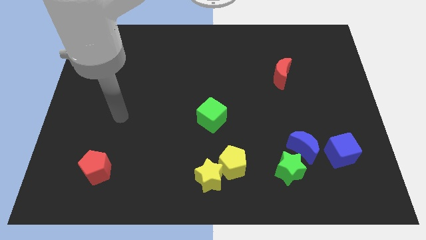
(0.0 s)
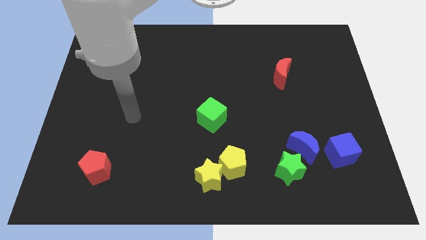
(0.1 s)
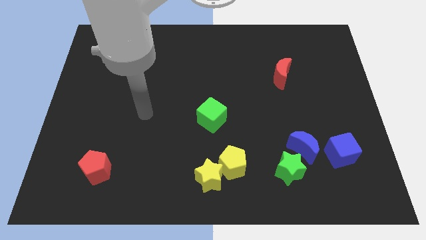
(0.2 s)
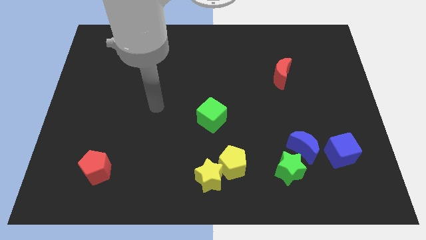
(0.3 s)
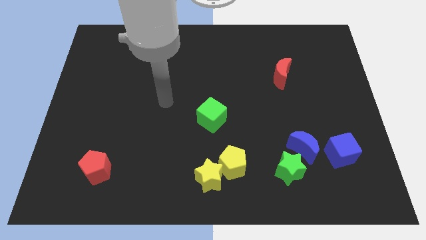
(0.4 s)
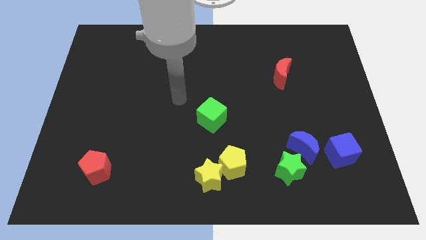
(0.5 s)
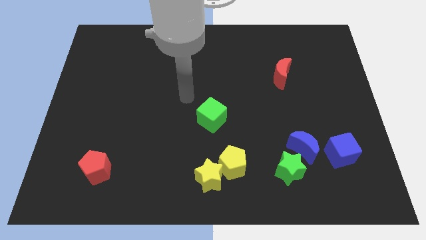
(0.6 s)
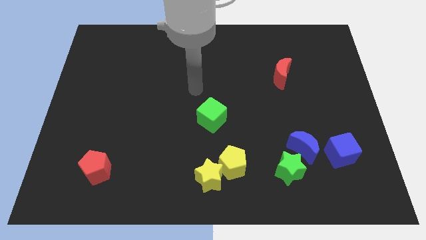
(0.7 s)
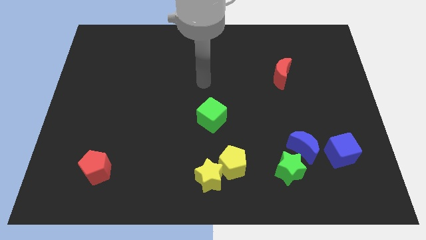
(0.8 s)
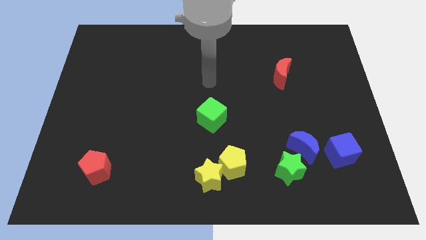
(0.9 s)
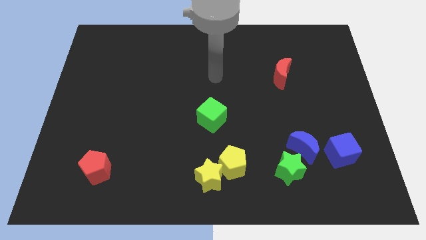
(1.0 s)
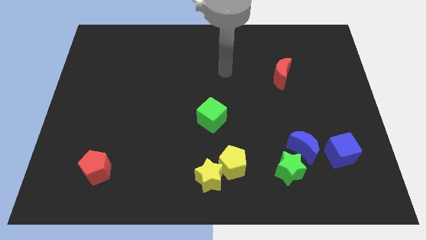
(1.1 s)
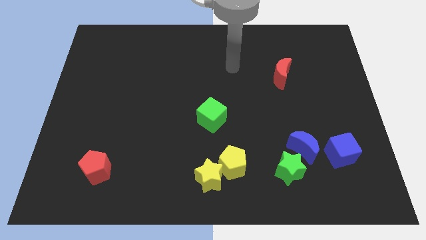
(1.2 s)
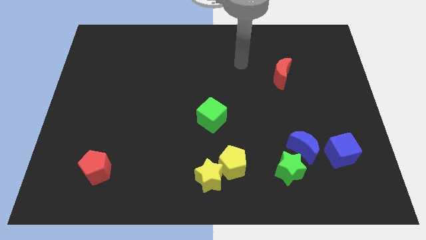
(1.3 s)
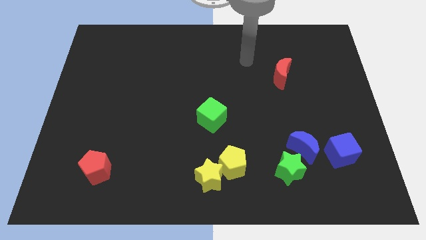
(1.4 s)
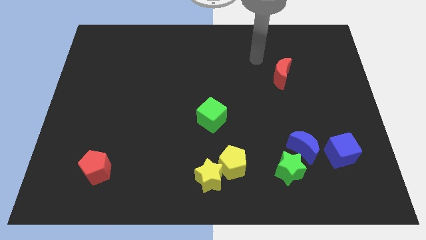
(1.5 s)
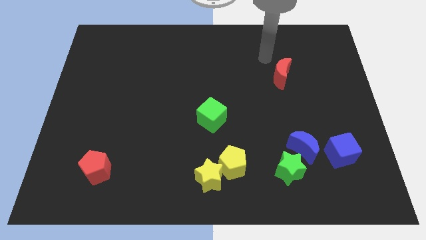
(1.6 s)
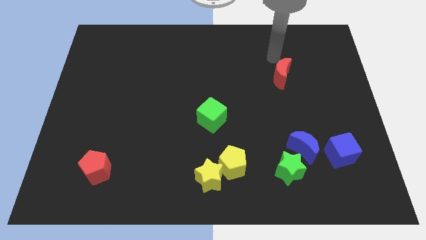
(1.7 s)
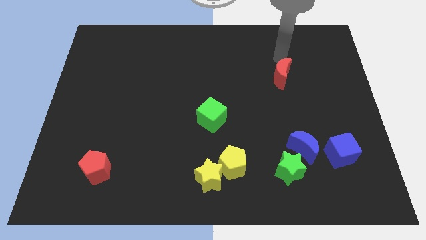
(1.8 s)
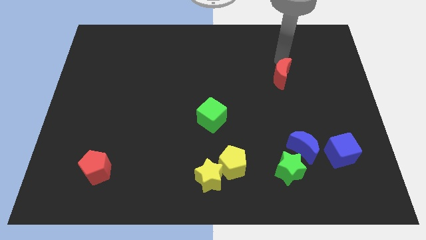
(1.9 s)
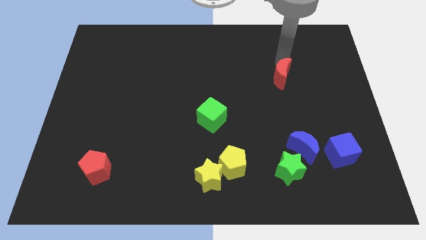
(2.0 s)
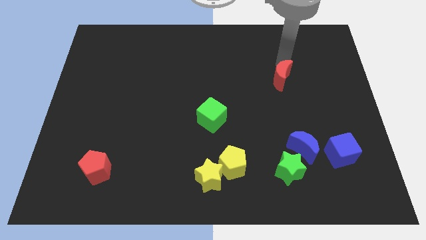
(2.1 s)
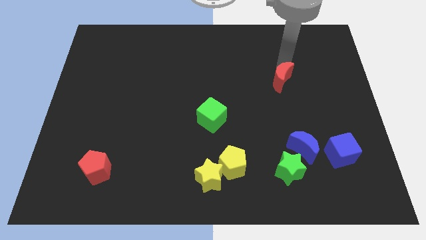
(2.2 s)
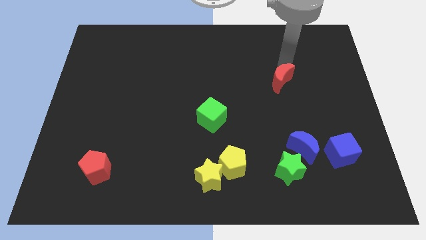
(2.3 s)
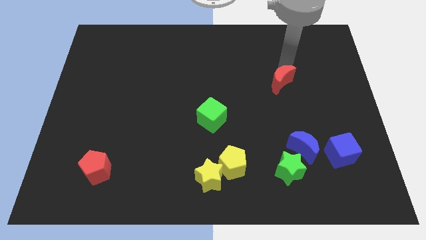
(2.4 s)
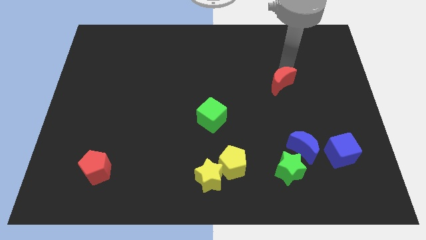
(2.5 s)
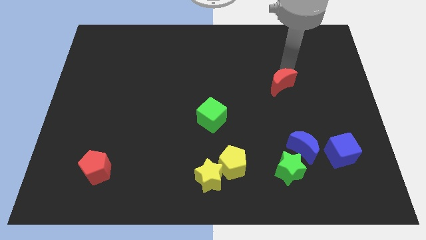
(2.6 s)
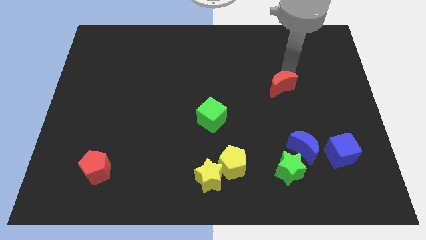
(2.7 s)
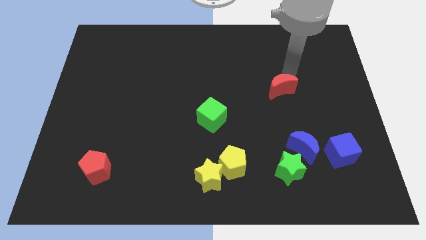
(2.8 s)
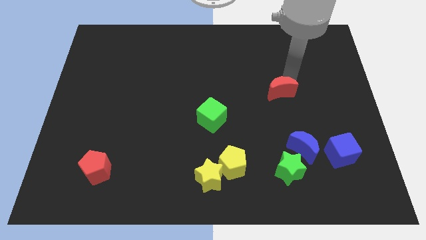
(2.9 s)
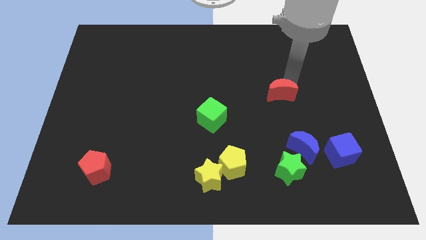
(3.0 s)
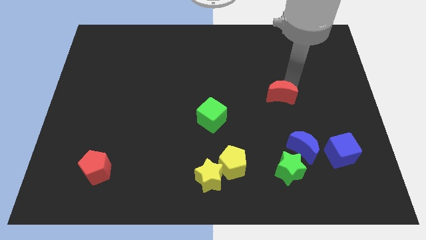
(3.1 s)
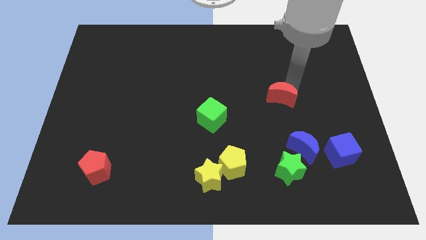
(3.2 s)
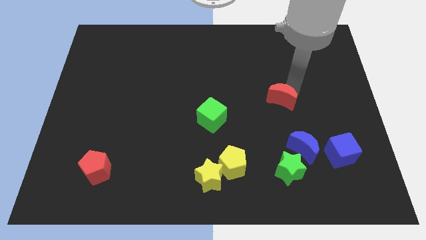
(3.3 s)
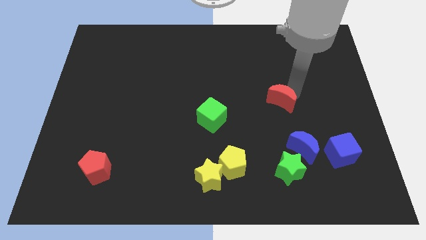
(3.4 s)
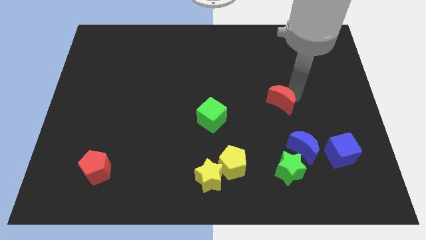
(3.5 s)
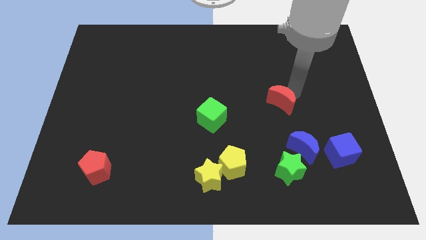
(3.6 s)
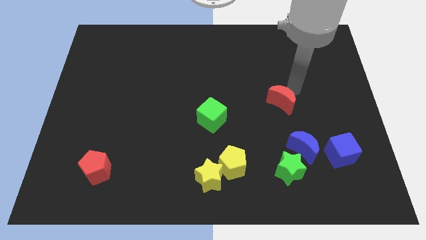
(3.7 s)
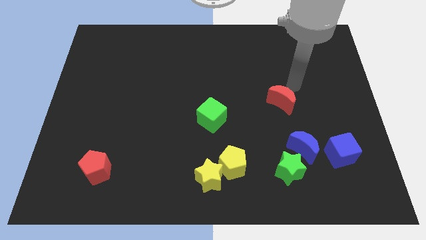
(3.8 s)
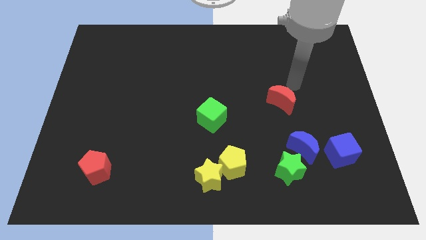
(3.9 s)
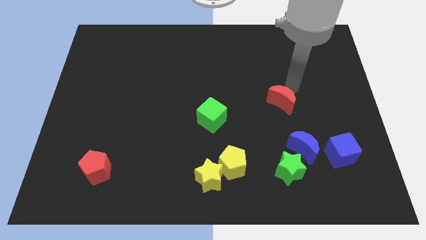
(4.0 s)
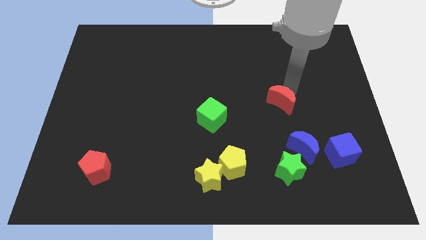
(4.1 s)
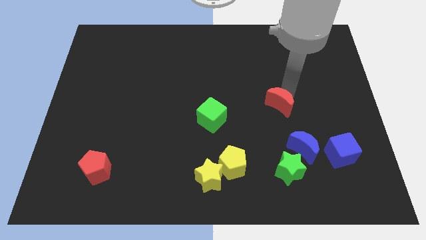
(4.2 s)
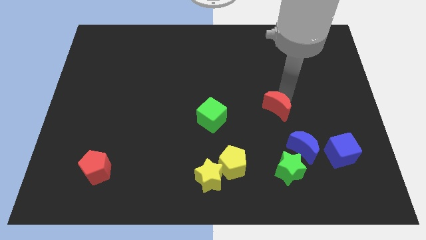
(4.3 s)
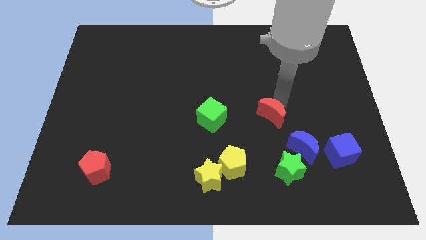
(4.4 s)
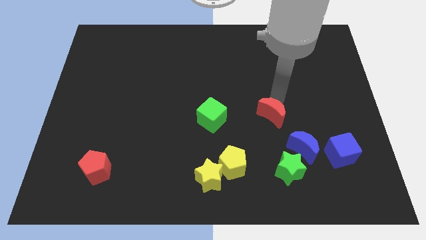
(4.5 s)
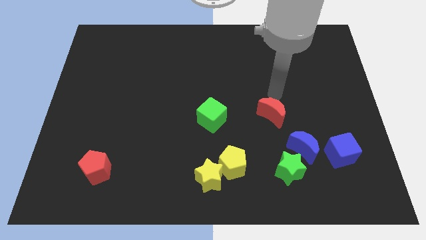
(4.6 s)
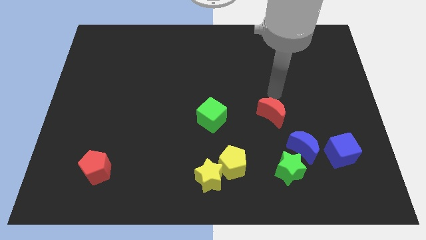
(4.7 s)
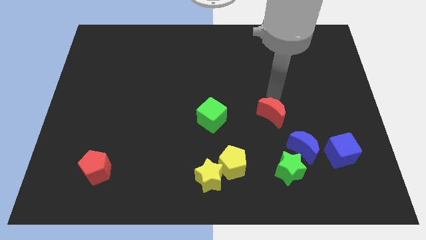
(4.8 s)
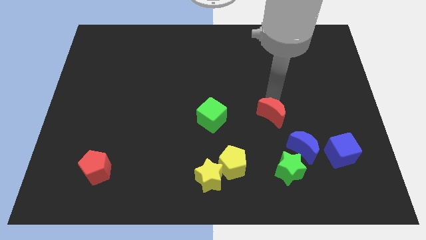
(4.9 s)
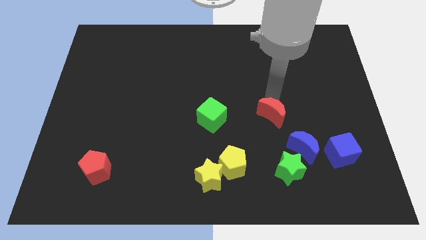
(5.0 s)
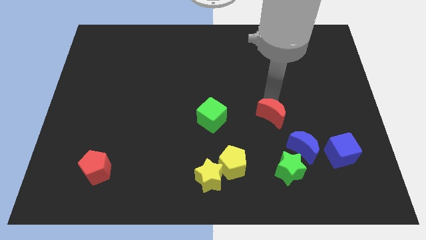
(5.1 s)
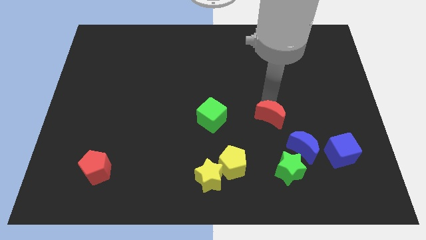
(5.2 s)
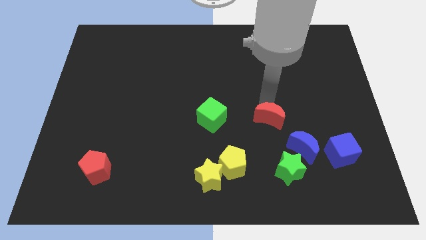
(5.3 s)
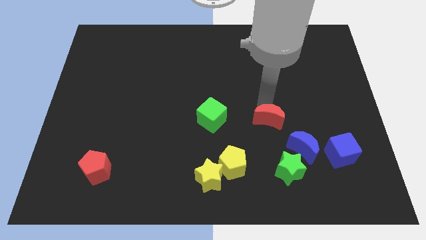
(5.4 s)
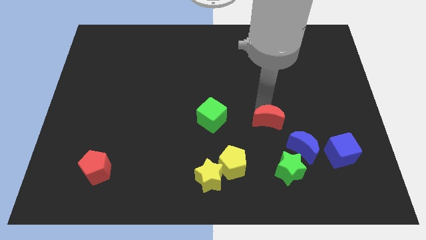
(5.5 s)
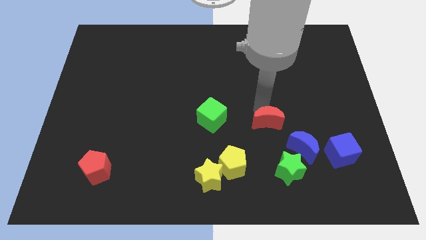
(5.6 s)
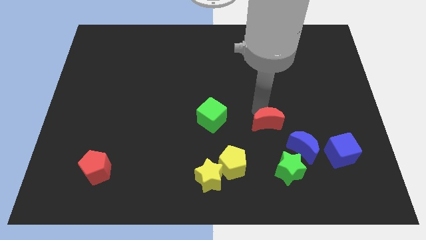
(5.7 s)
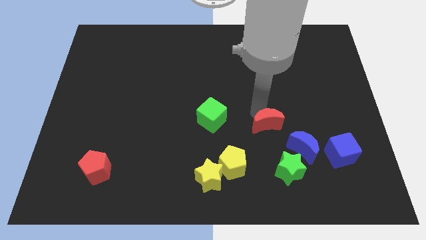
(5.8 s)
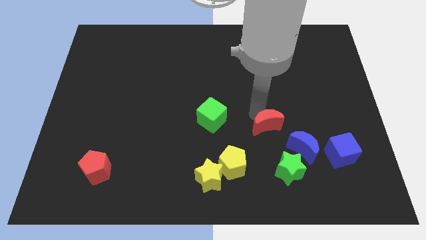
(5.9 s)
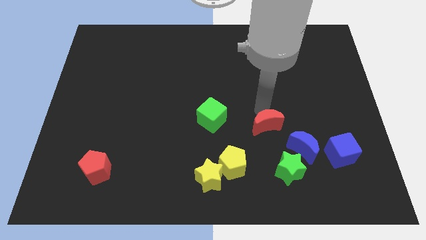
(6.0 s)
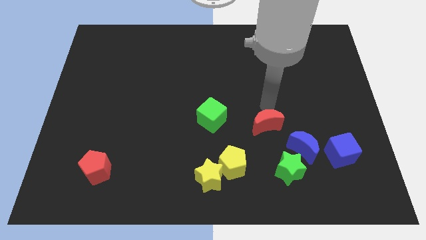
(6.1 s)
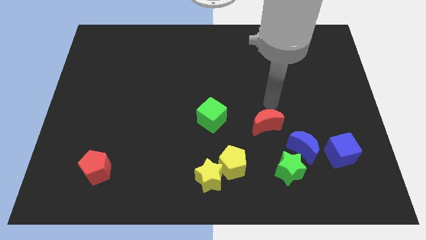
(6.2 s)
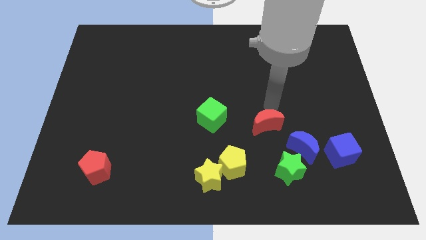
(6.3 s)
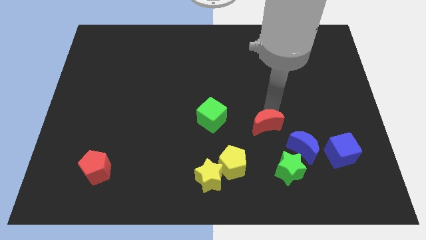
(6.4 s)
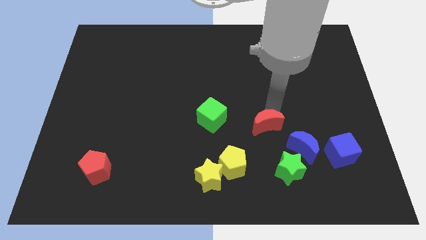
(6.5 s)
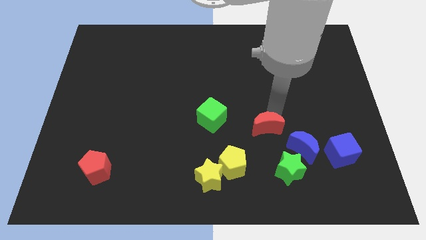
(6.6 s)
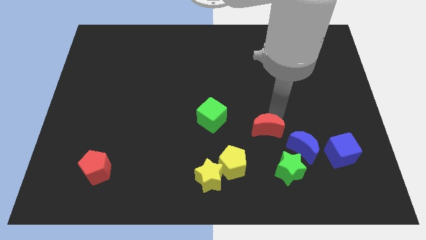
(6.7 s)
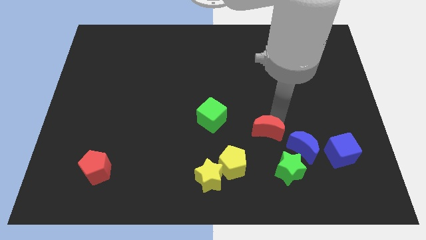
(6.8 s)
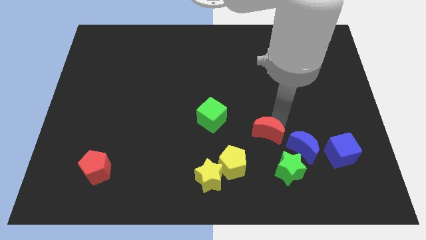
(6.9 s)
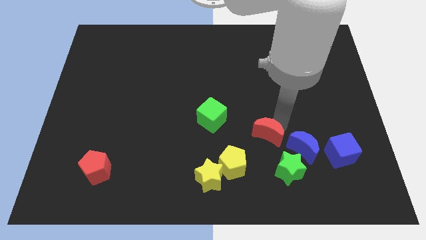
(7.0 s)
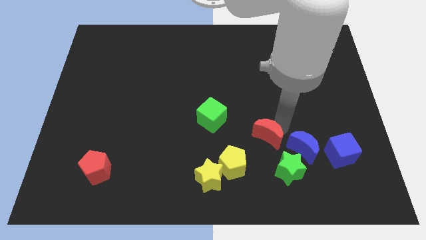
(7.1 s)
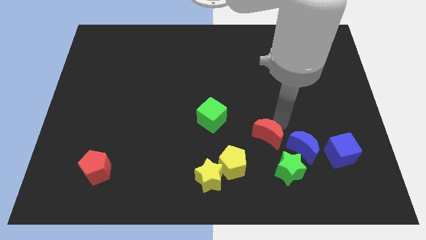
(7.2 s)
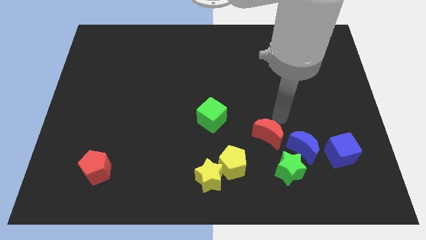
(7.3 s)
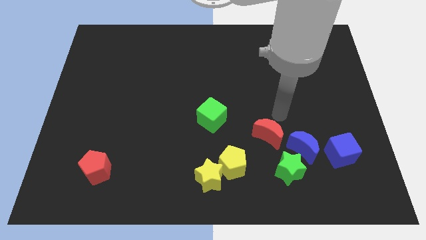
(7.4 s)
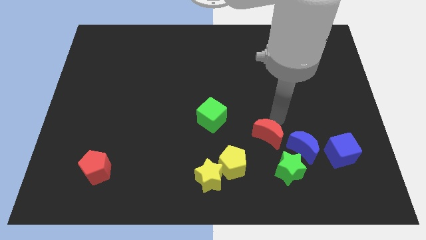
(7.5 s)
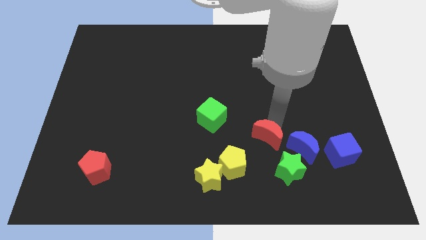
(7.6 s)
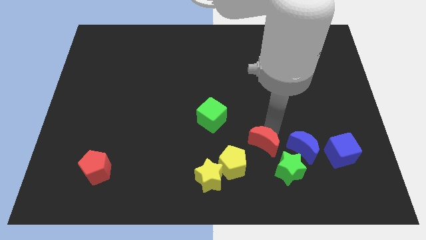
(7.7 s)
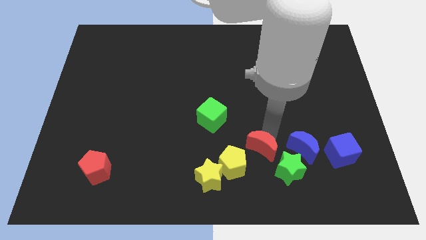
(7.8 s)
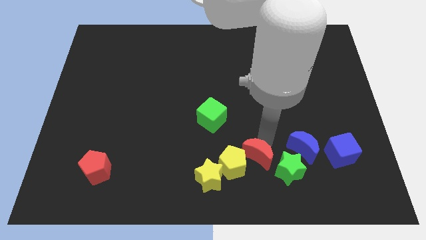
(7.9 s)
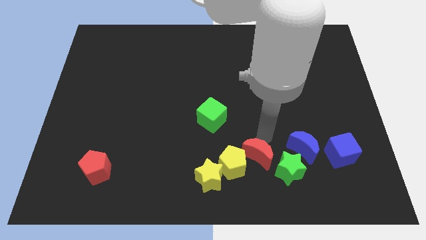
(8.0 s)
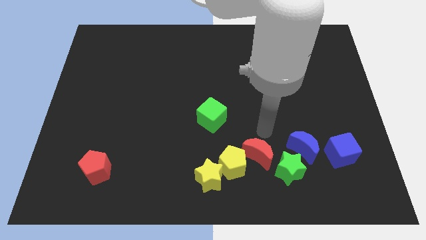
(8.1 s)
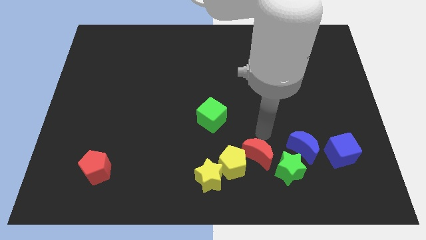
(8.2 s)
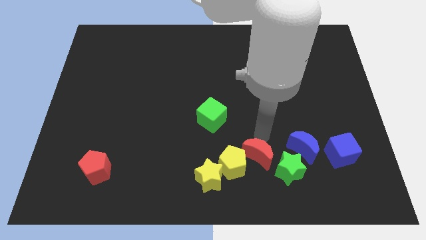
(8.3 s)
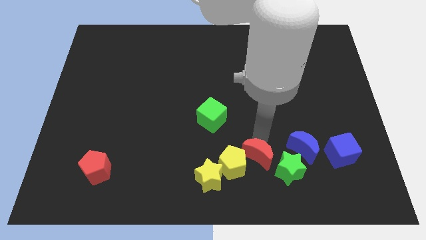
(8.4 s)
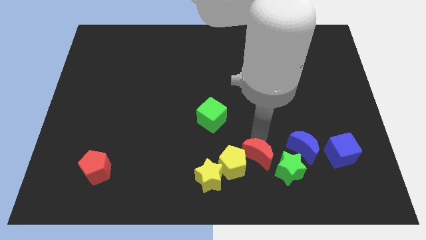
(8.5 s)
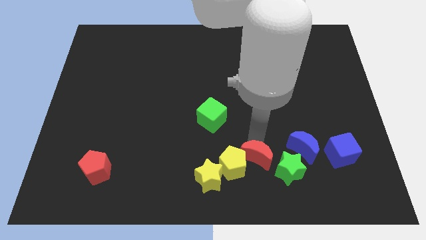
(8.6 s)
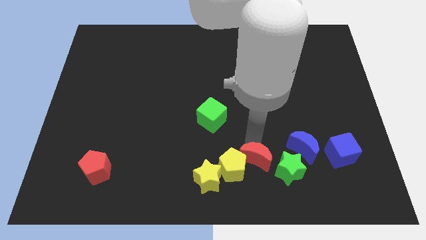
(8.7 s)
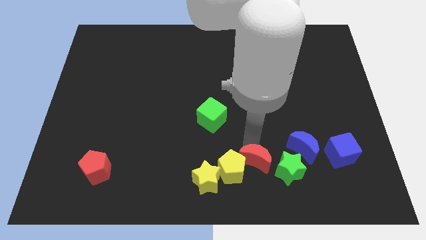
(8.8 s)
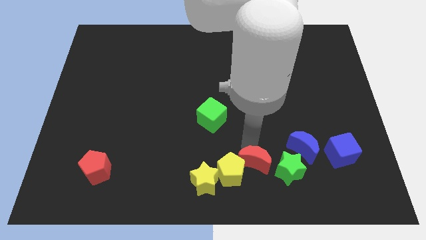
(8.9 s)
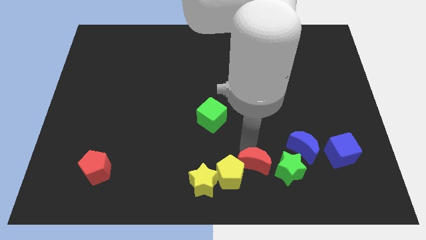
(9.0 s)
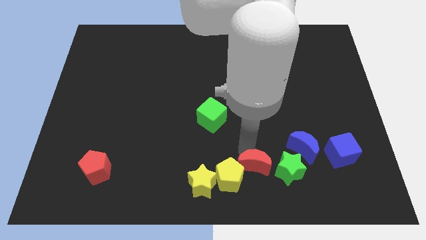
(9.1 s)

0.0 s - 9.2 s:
put the red moon to the bottom side
